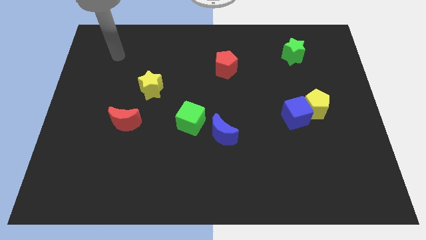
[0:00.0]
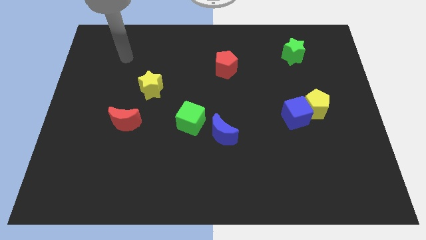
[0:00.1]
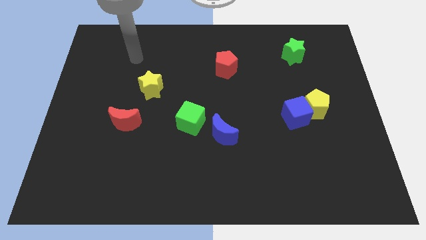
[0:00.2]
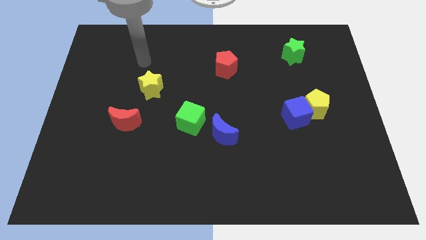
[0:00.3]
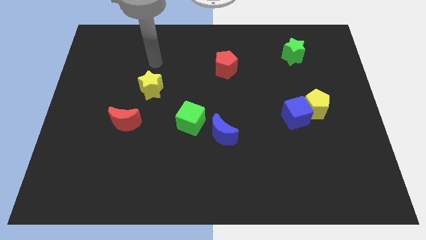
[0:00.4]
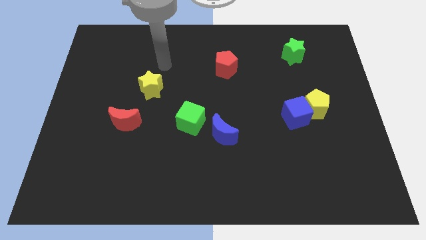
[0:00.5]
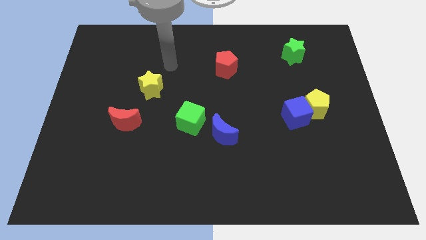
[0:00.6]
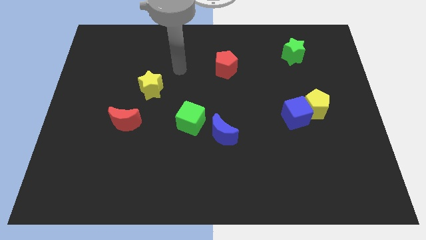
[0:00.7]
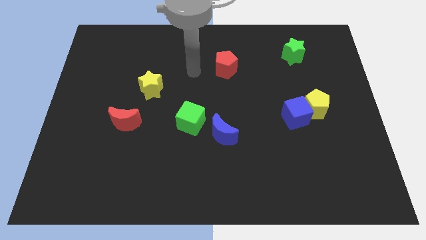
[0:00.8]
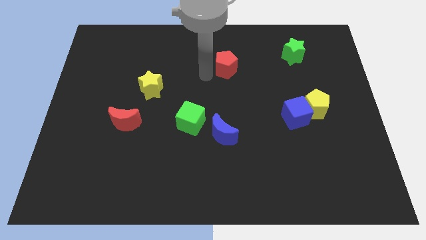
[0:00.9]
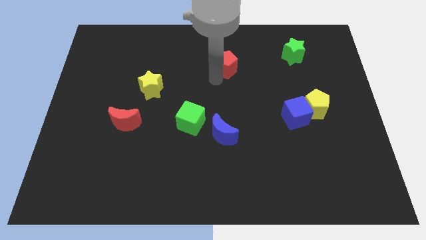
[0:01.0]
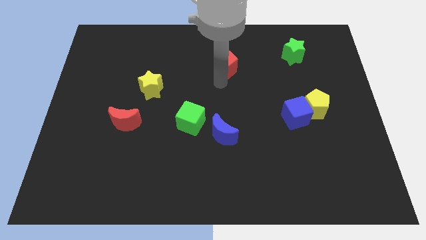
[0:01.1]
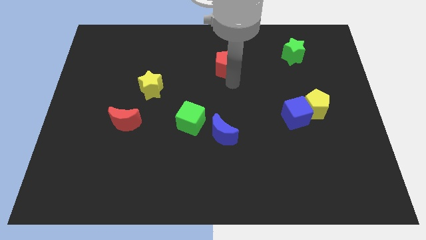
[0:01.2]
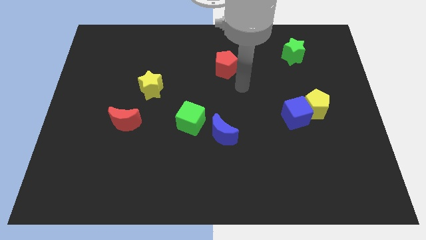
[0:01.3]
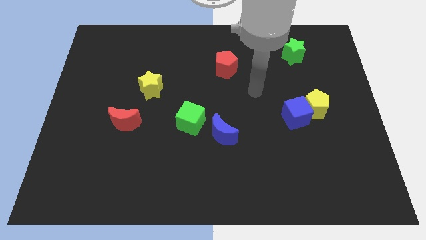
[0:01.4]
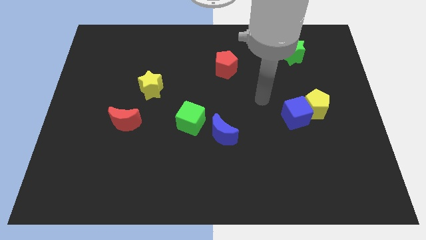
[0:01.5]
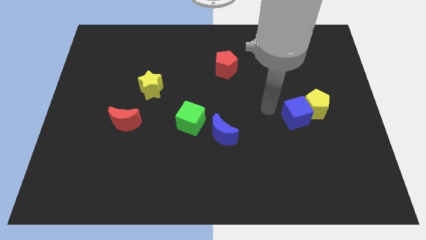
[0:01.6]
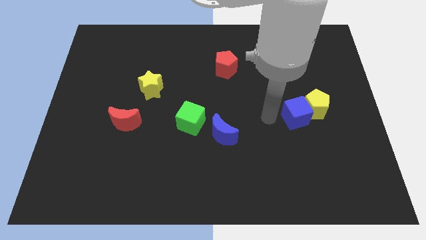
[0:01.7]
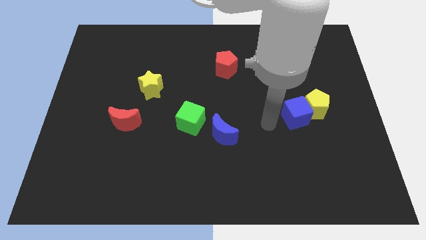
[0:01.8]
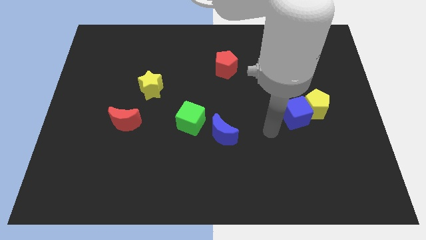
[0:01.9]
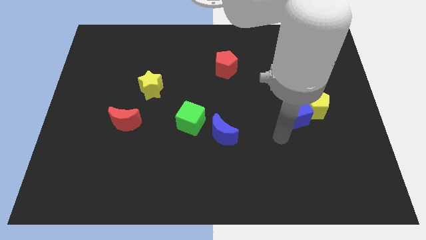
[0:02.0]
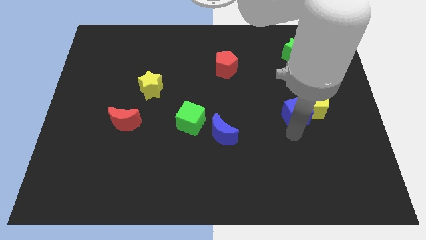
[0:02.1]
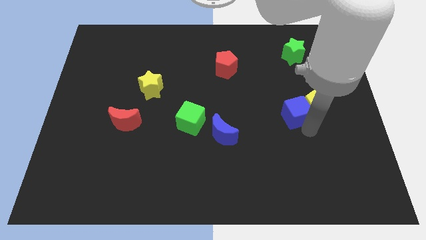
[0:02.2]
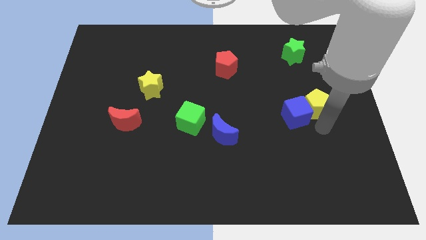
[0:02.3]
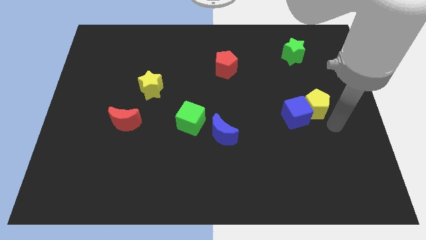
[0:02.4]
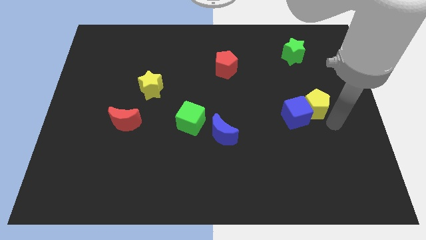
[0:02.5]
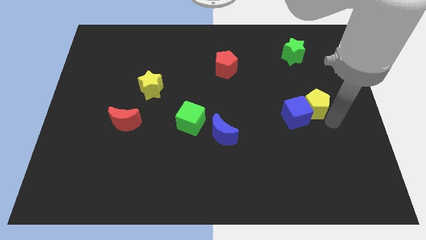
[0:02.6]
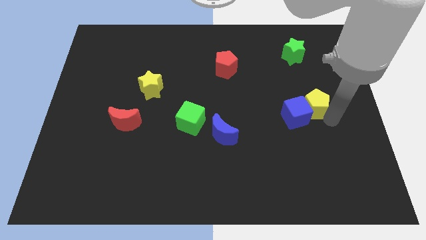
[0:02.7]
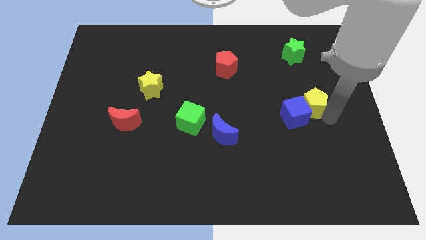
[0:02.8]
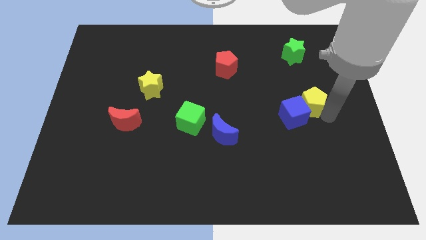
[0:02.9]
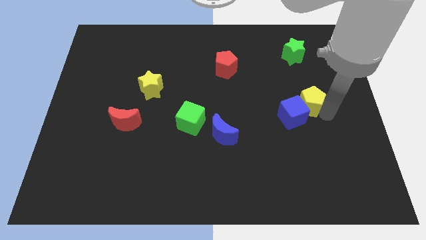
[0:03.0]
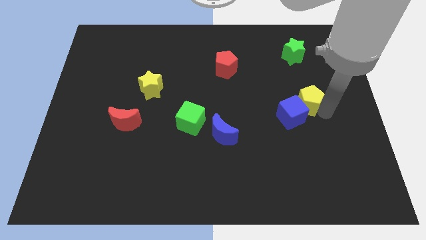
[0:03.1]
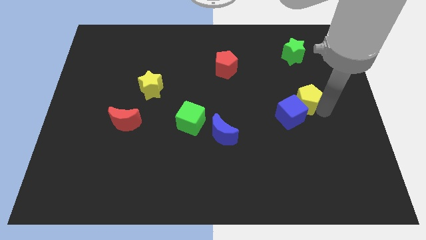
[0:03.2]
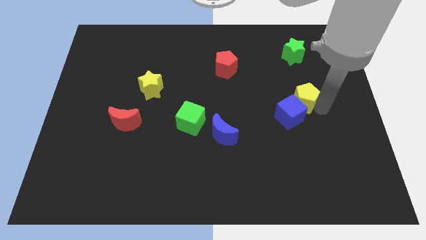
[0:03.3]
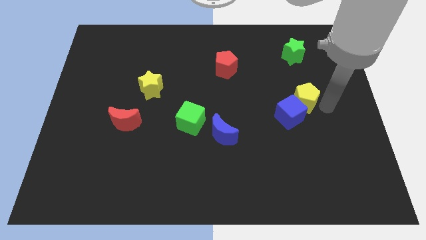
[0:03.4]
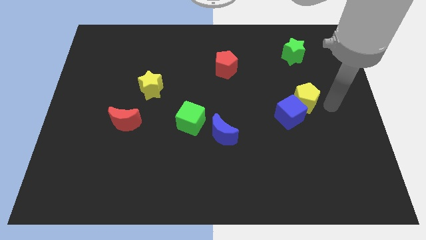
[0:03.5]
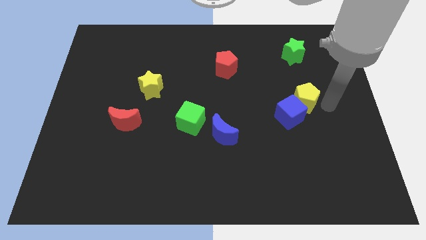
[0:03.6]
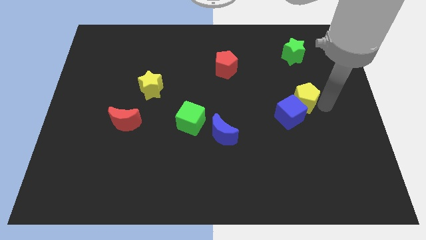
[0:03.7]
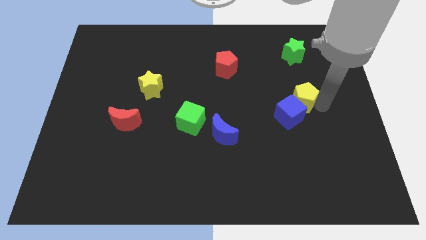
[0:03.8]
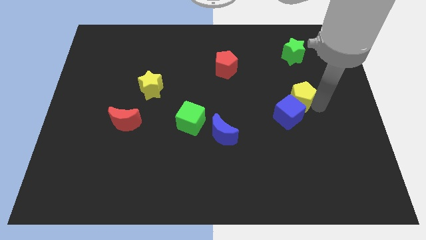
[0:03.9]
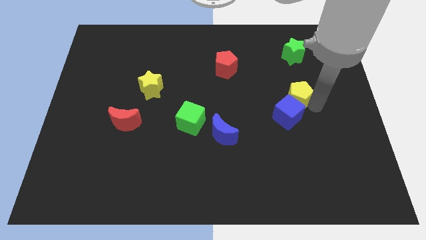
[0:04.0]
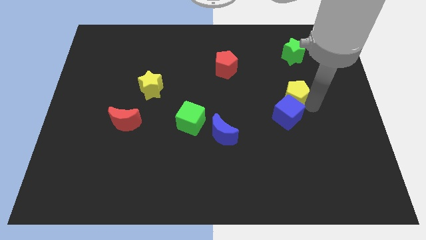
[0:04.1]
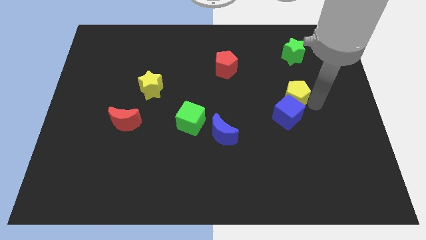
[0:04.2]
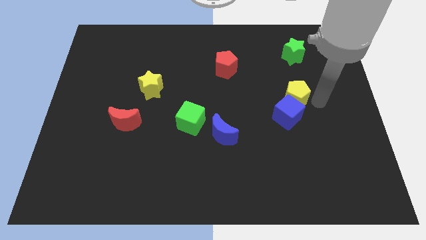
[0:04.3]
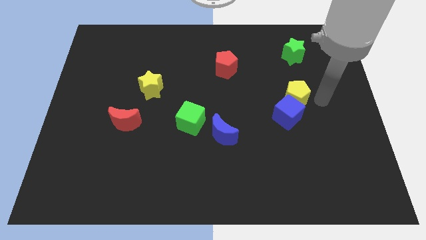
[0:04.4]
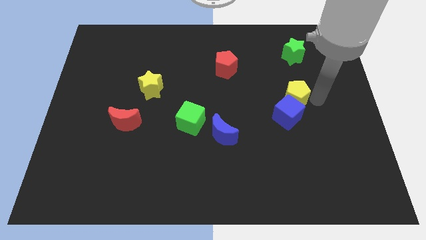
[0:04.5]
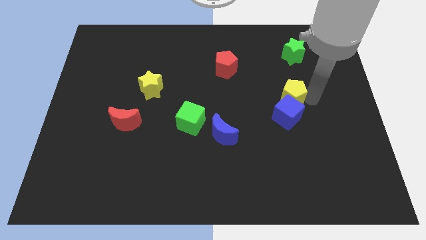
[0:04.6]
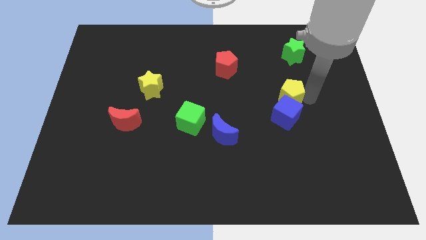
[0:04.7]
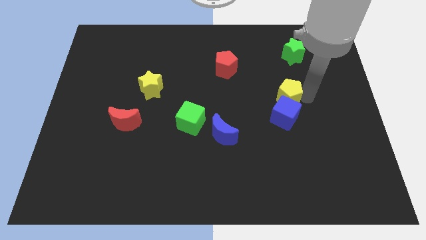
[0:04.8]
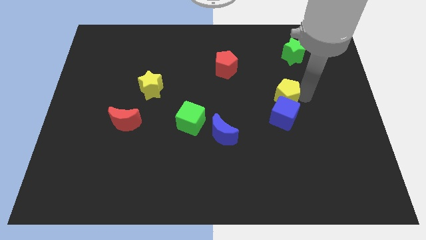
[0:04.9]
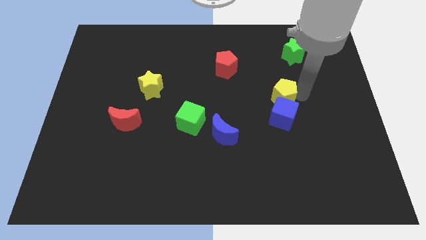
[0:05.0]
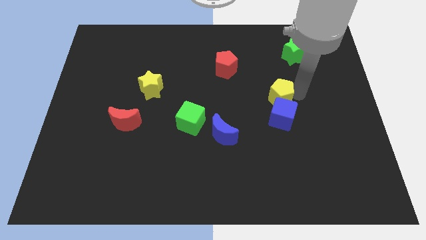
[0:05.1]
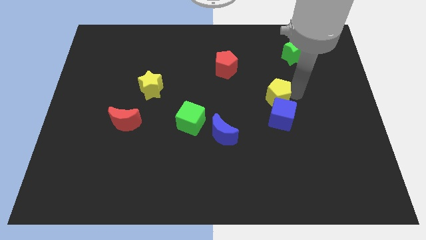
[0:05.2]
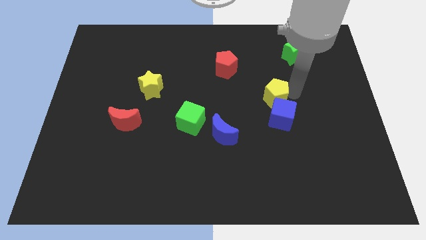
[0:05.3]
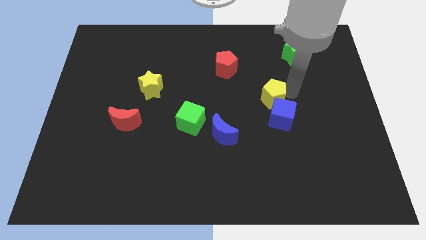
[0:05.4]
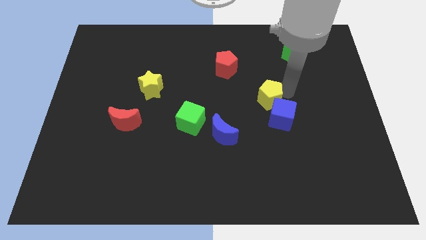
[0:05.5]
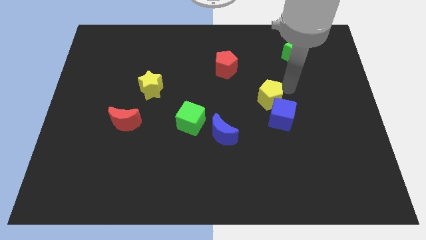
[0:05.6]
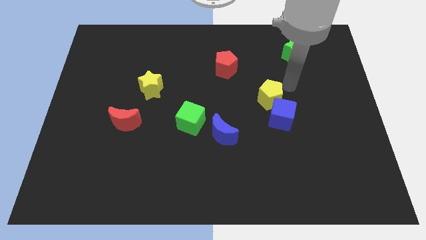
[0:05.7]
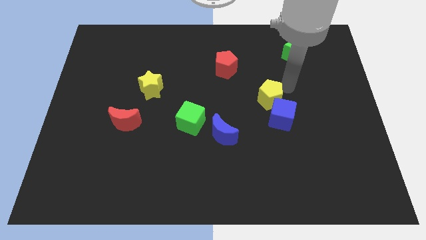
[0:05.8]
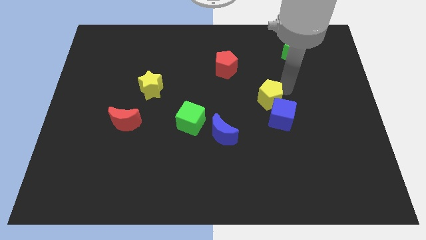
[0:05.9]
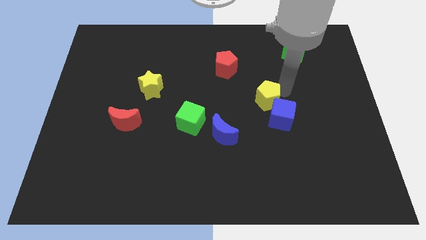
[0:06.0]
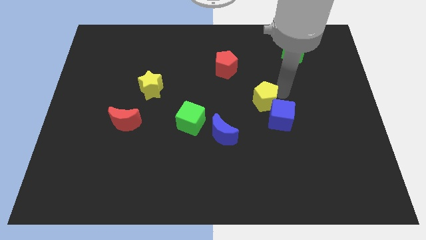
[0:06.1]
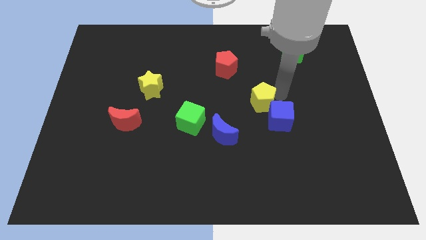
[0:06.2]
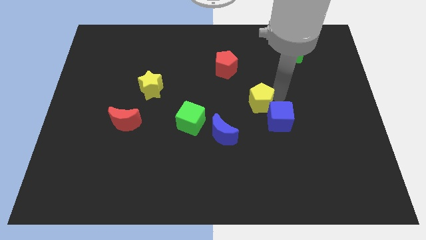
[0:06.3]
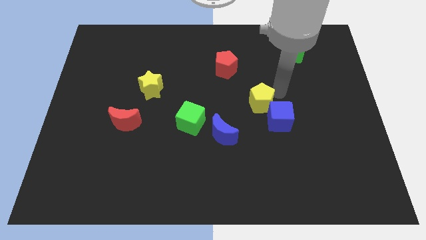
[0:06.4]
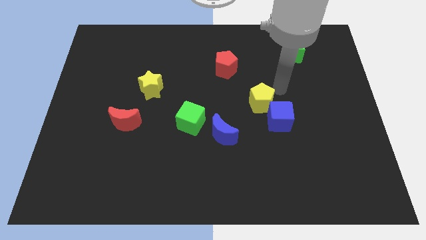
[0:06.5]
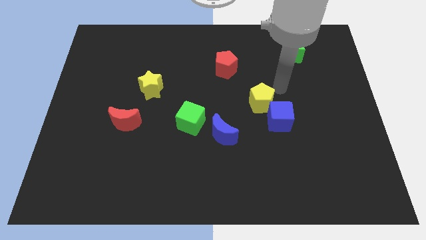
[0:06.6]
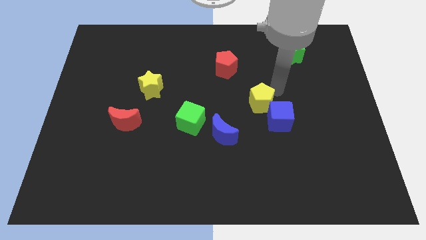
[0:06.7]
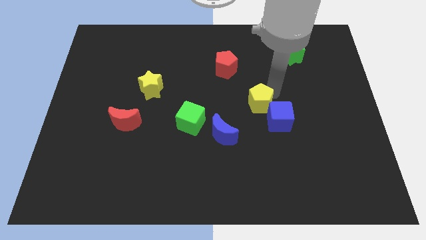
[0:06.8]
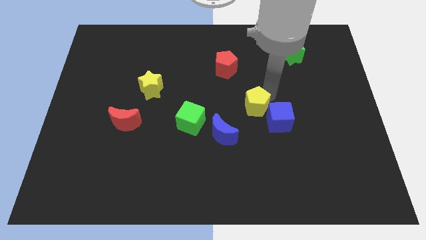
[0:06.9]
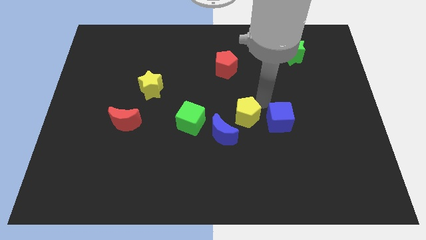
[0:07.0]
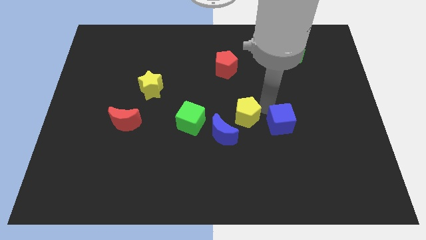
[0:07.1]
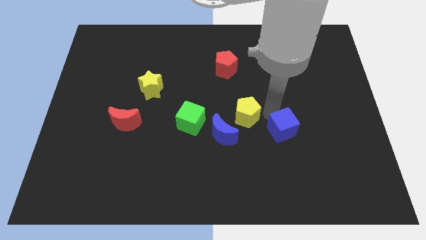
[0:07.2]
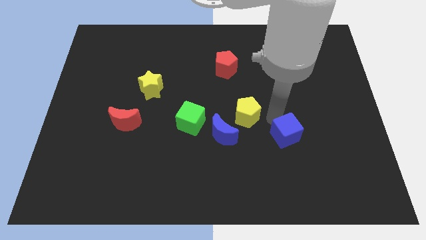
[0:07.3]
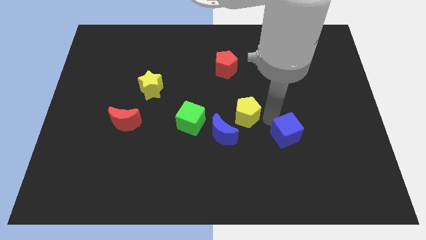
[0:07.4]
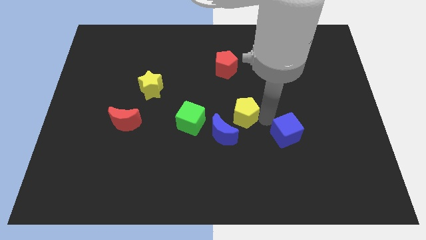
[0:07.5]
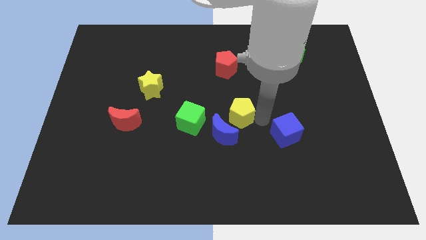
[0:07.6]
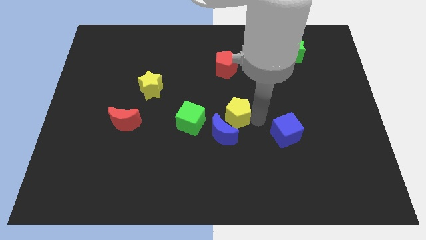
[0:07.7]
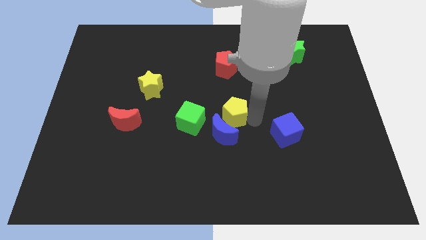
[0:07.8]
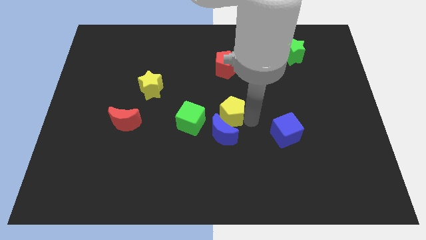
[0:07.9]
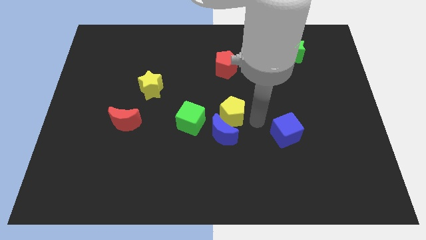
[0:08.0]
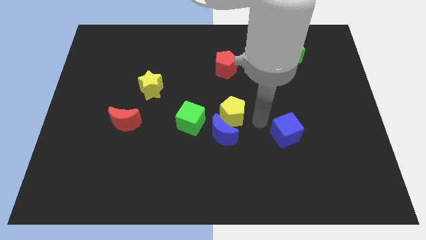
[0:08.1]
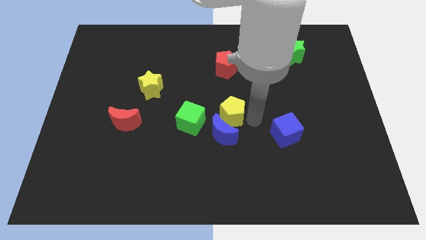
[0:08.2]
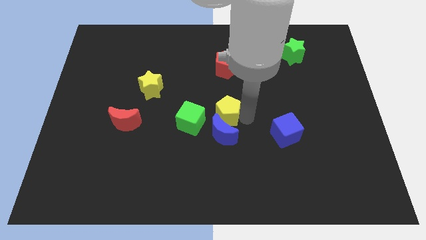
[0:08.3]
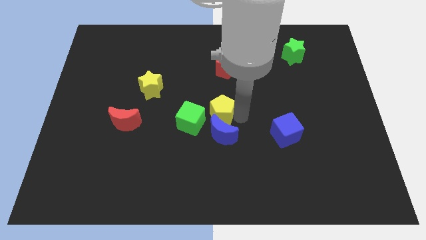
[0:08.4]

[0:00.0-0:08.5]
slide the yellow pentagon to the top left side of the blue moon
